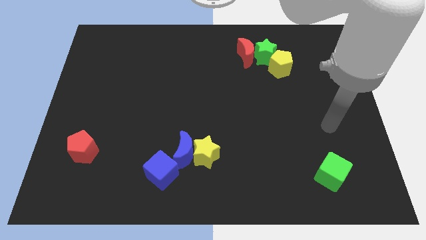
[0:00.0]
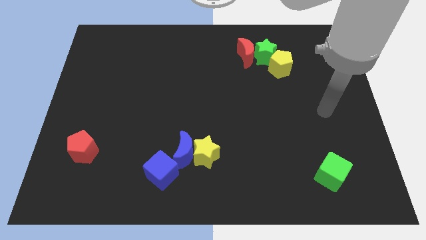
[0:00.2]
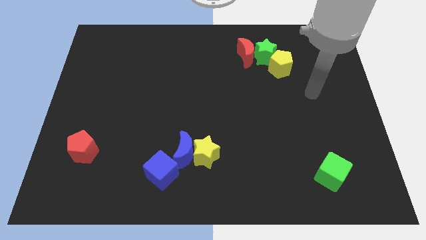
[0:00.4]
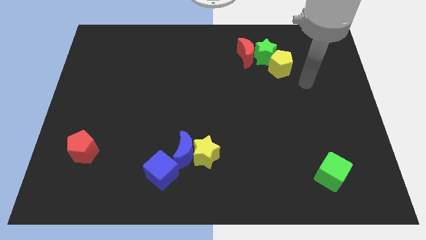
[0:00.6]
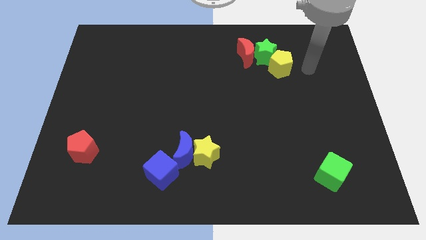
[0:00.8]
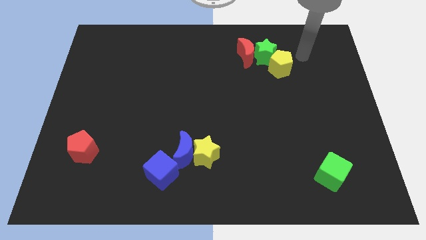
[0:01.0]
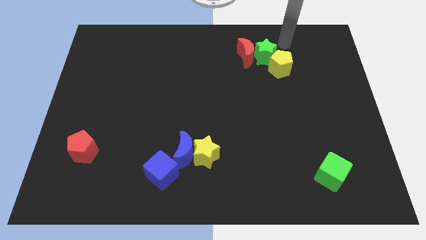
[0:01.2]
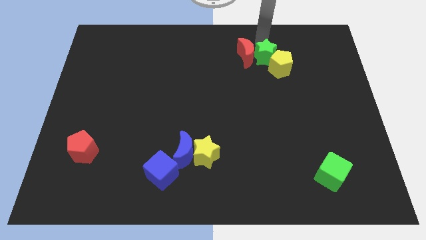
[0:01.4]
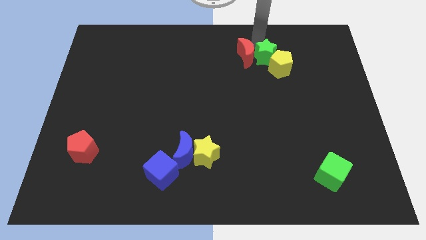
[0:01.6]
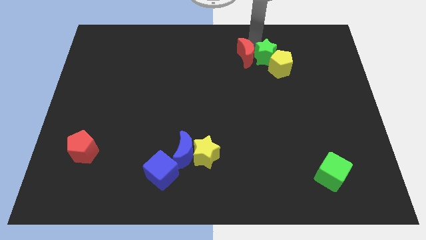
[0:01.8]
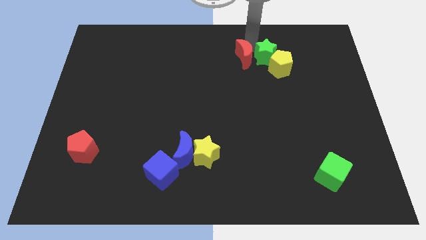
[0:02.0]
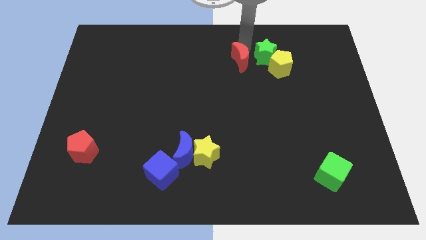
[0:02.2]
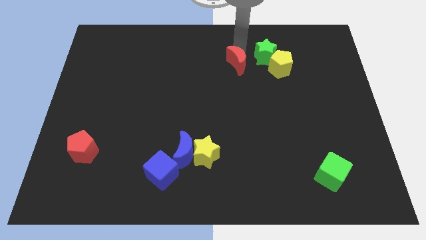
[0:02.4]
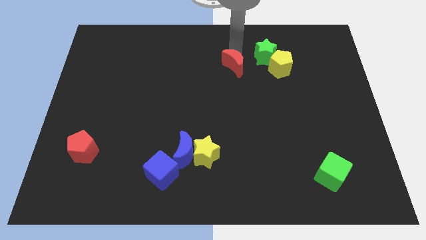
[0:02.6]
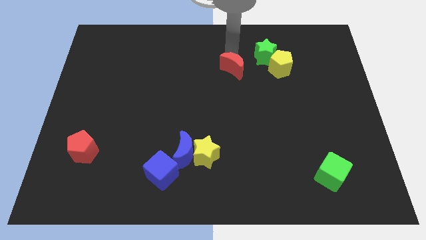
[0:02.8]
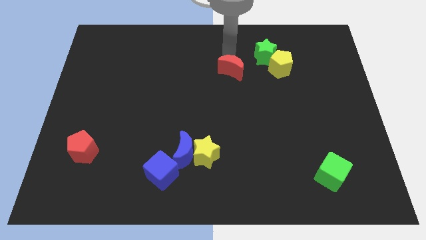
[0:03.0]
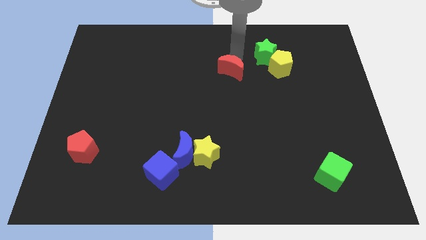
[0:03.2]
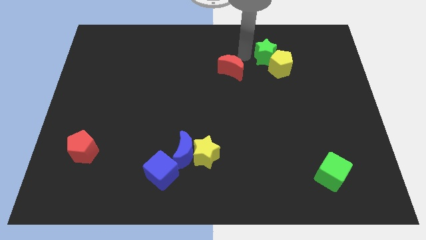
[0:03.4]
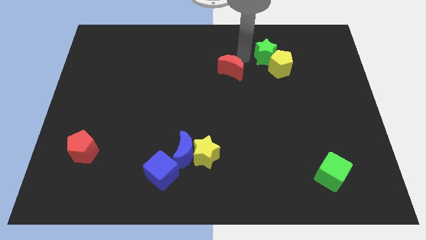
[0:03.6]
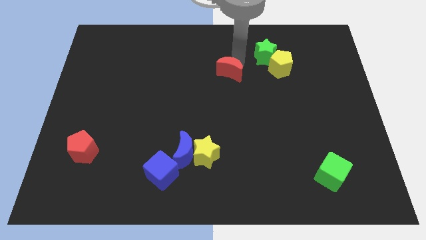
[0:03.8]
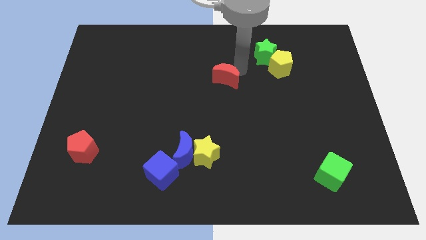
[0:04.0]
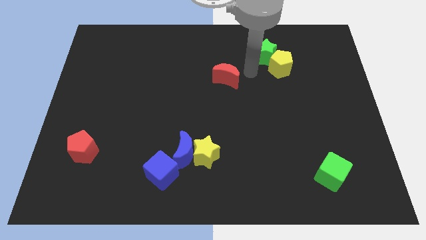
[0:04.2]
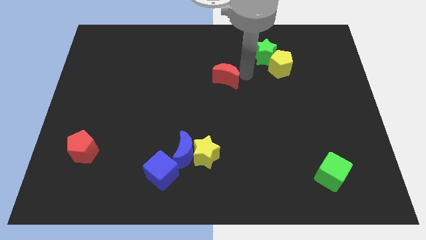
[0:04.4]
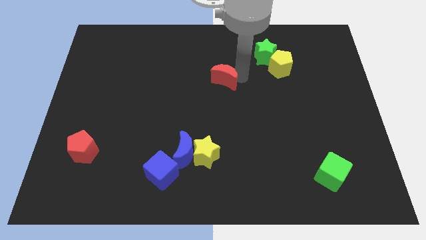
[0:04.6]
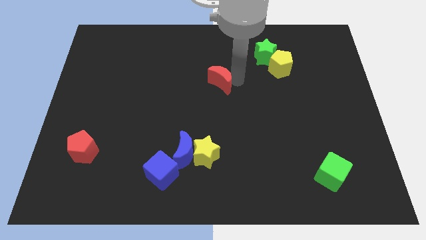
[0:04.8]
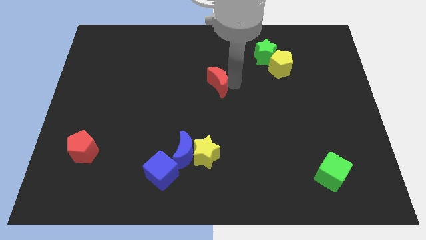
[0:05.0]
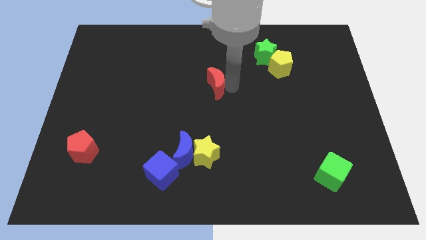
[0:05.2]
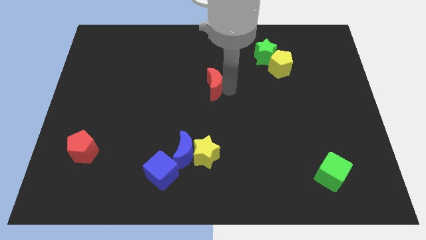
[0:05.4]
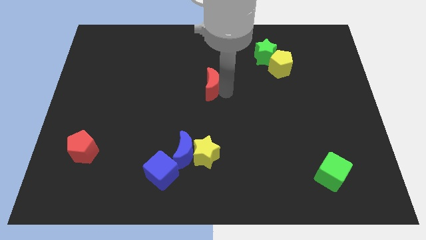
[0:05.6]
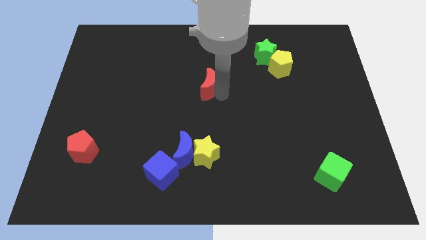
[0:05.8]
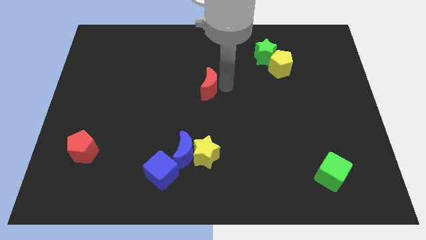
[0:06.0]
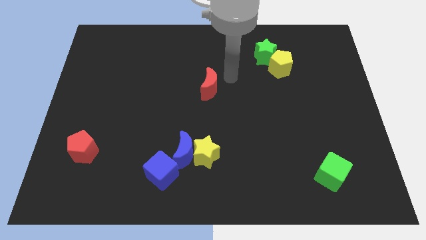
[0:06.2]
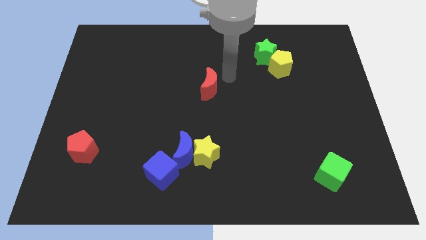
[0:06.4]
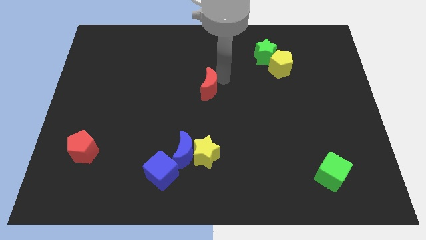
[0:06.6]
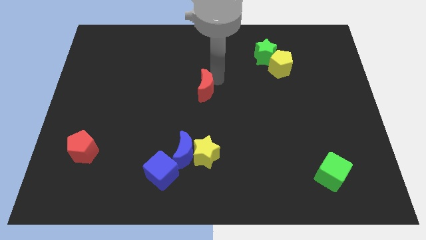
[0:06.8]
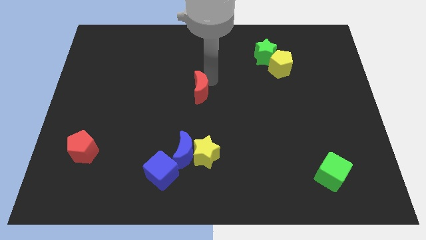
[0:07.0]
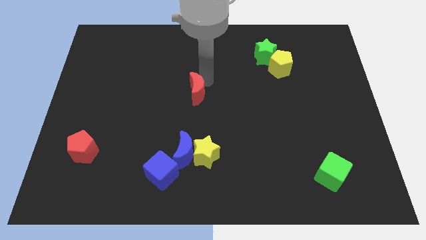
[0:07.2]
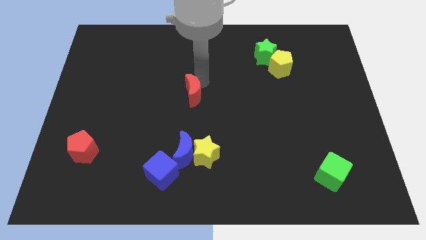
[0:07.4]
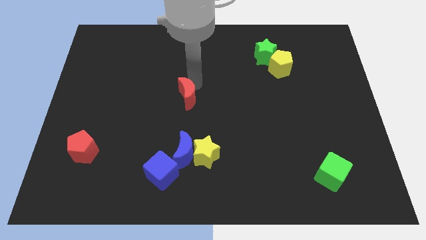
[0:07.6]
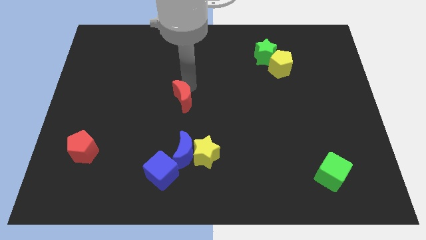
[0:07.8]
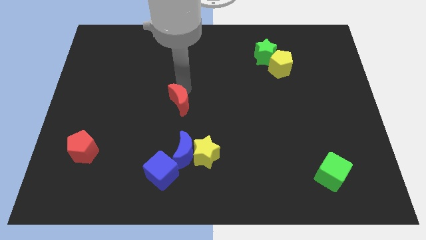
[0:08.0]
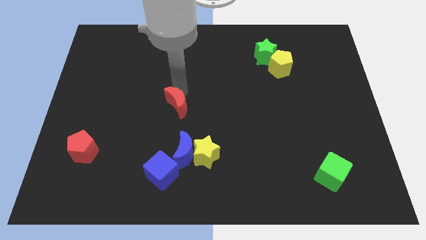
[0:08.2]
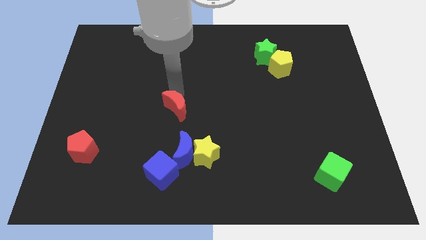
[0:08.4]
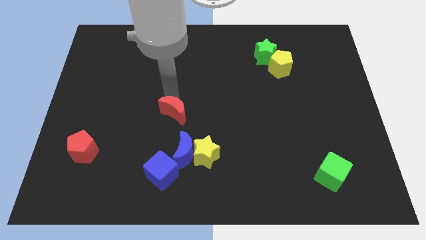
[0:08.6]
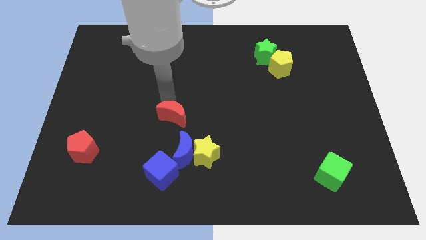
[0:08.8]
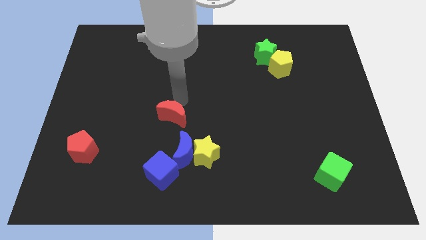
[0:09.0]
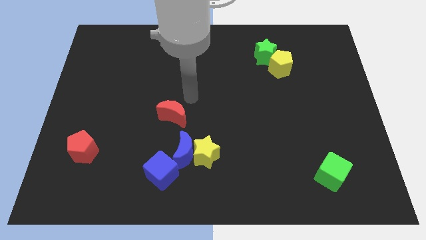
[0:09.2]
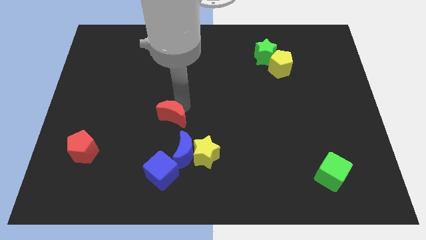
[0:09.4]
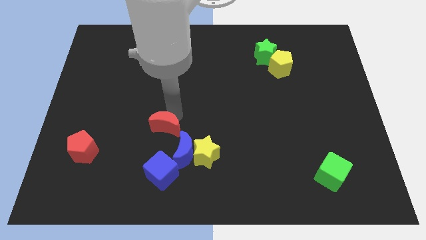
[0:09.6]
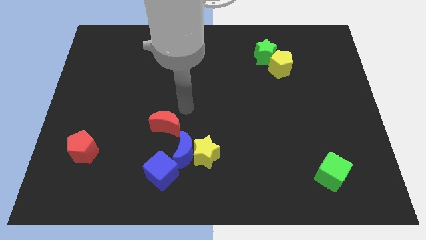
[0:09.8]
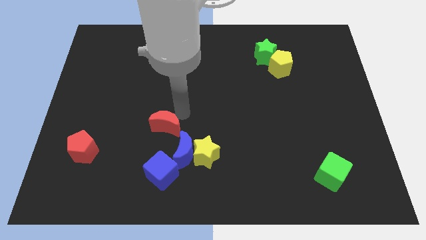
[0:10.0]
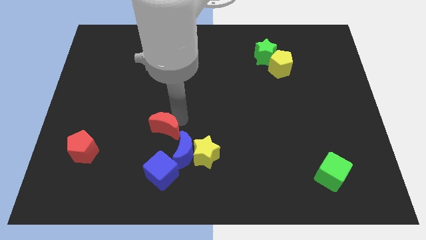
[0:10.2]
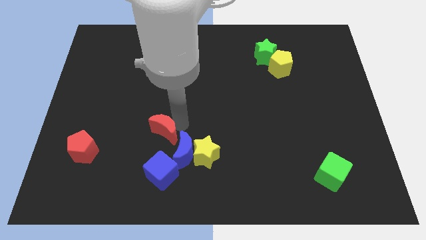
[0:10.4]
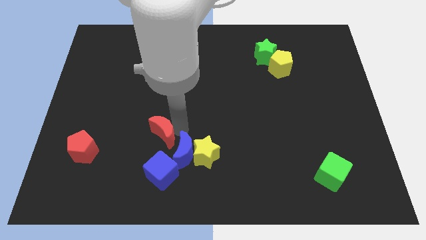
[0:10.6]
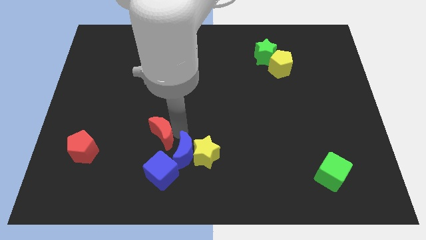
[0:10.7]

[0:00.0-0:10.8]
move the red moon just left of the blue moon

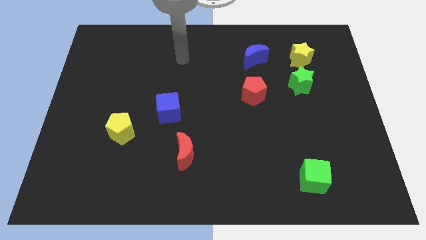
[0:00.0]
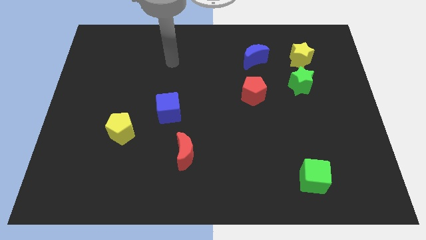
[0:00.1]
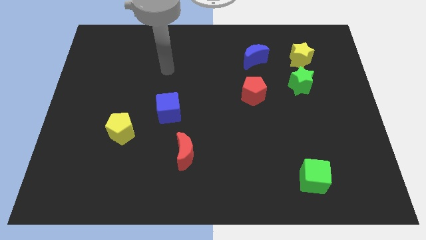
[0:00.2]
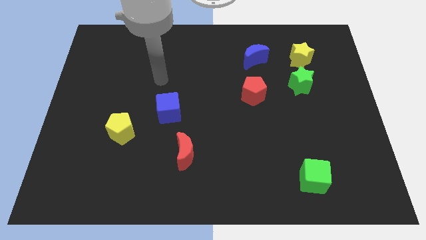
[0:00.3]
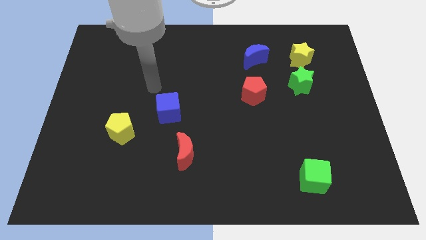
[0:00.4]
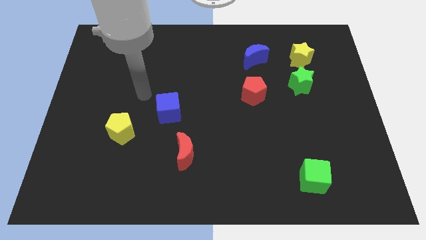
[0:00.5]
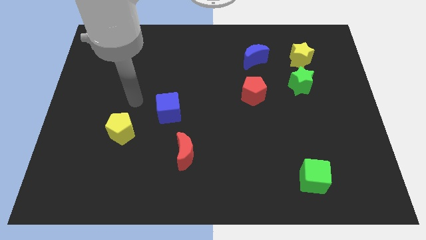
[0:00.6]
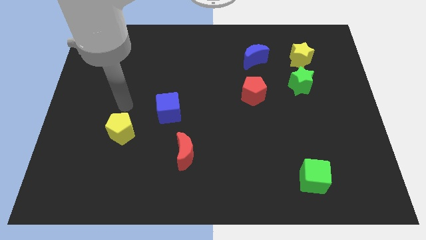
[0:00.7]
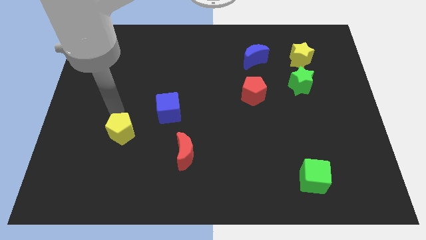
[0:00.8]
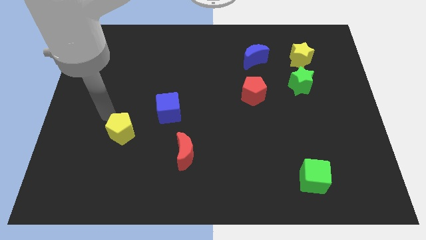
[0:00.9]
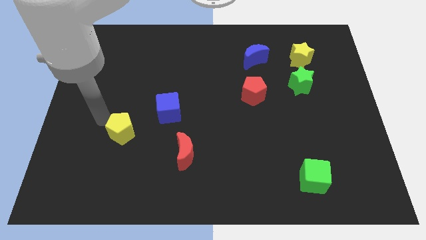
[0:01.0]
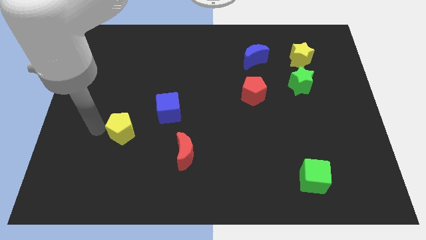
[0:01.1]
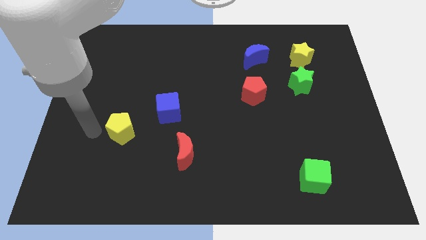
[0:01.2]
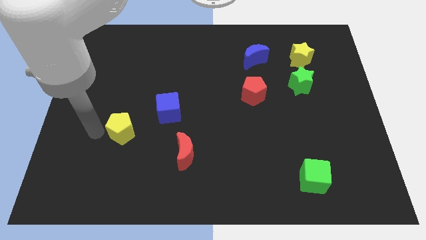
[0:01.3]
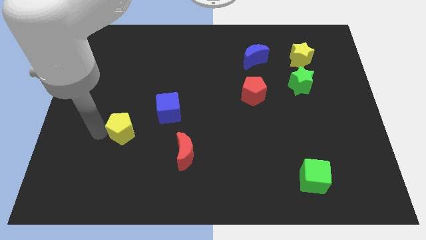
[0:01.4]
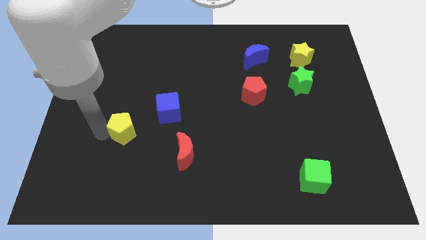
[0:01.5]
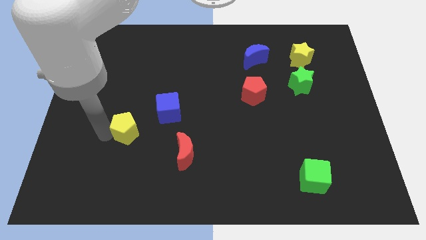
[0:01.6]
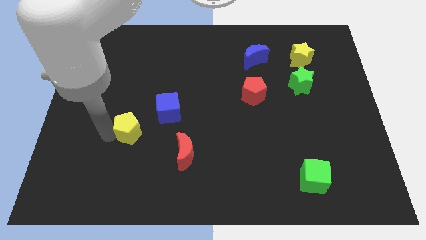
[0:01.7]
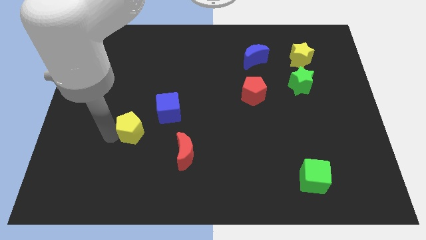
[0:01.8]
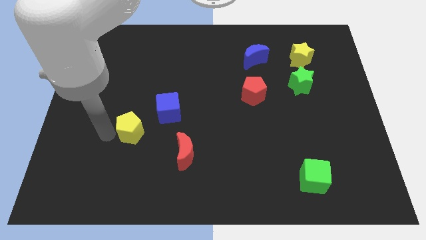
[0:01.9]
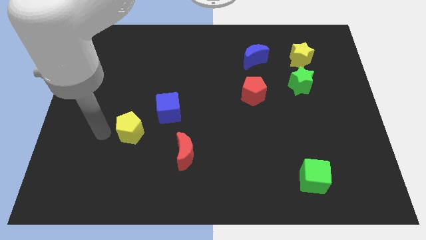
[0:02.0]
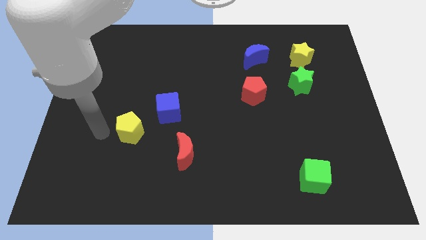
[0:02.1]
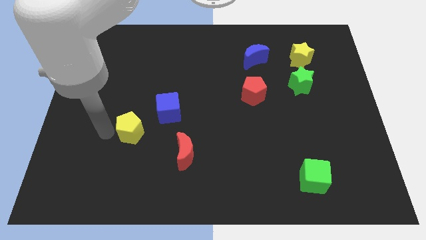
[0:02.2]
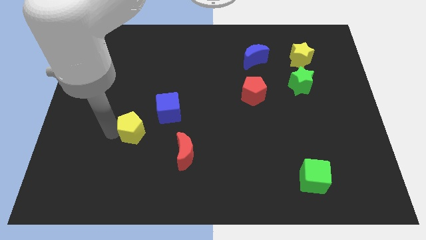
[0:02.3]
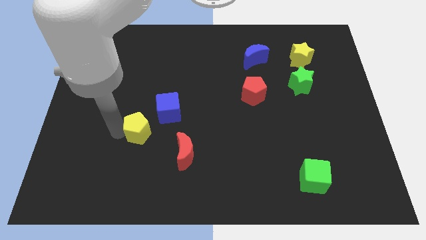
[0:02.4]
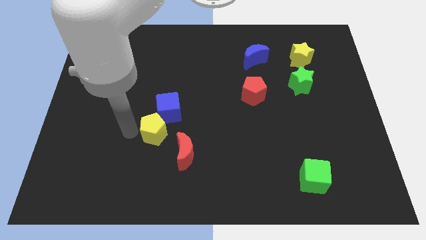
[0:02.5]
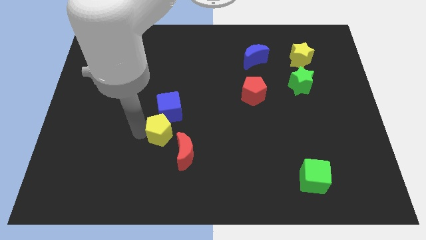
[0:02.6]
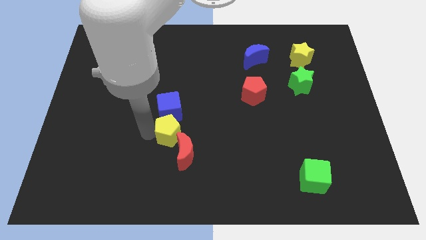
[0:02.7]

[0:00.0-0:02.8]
push the yellow pentagon diagonally down and to the right of the blue cube
